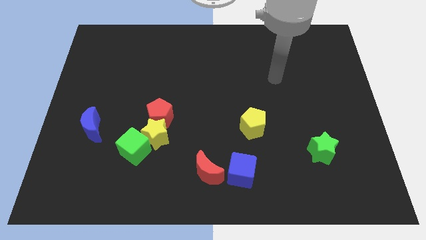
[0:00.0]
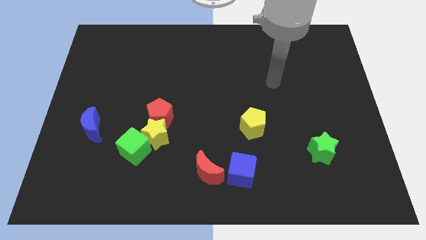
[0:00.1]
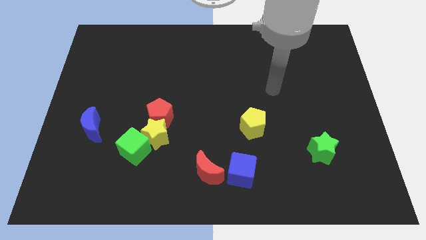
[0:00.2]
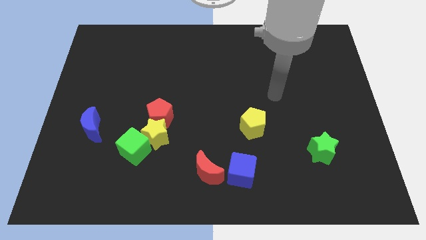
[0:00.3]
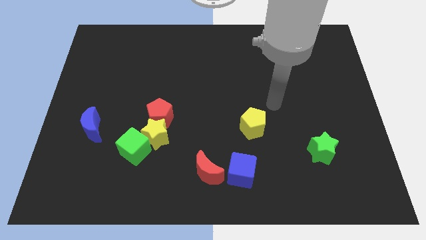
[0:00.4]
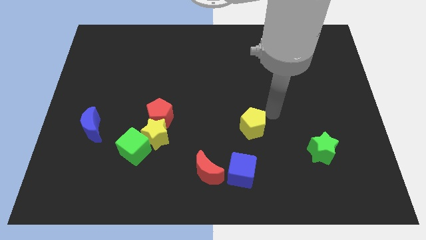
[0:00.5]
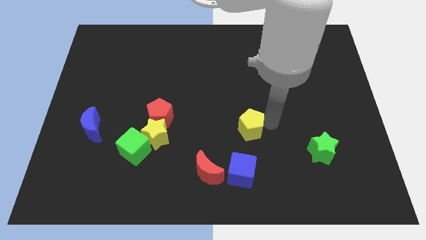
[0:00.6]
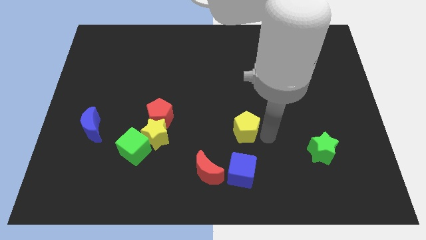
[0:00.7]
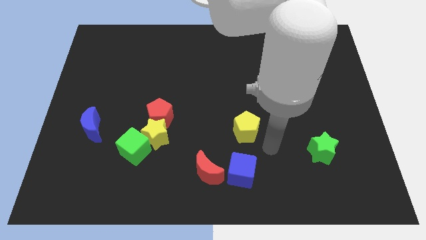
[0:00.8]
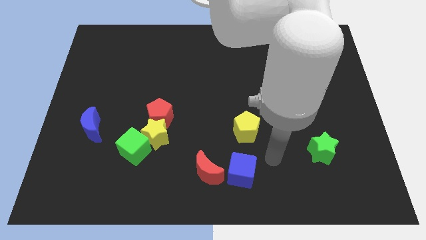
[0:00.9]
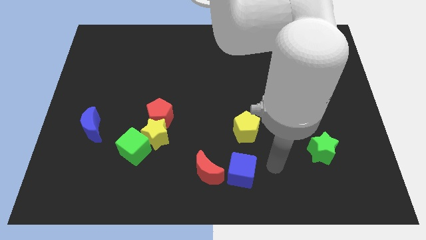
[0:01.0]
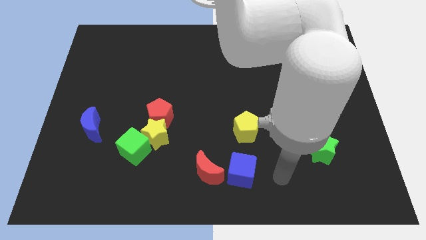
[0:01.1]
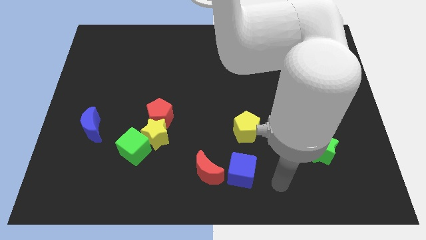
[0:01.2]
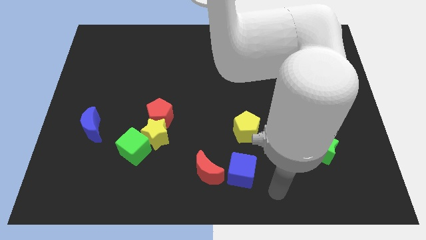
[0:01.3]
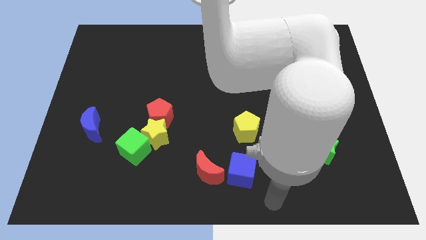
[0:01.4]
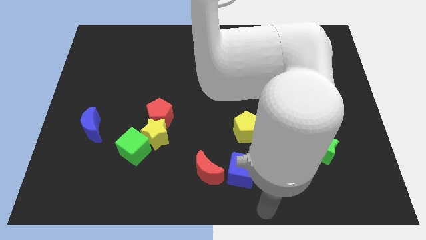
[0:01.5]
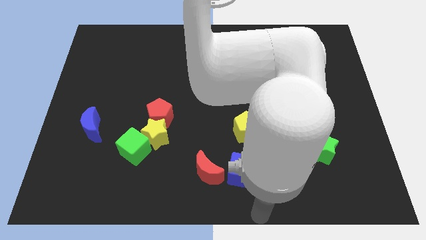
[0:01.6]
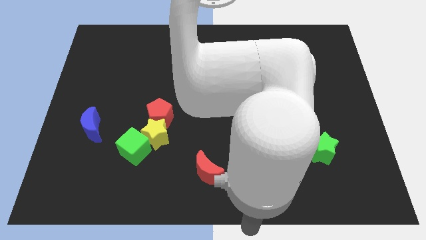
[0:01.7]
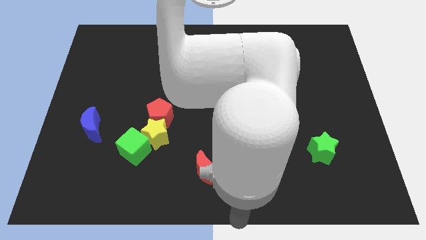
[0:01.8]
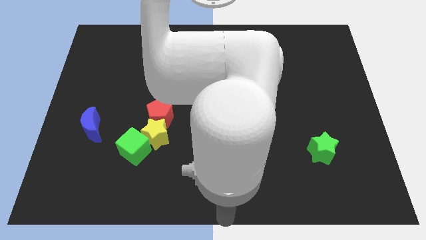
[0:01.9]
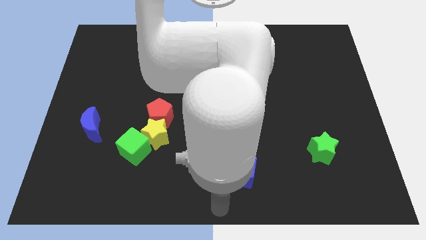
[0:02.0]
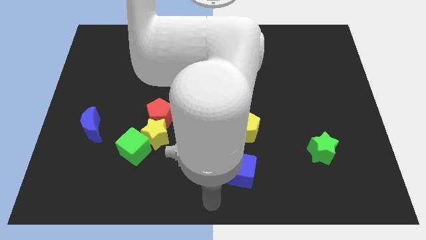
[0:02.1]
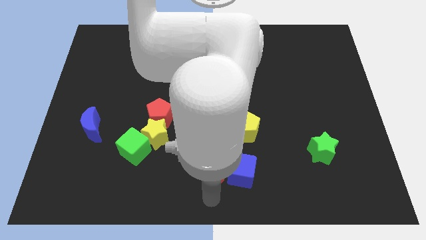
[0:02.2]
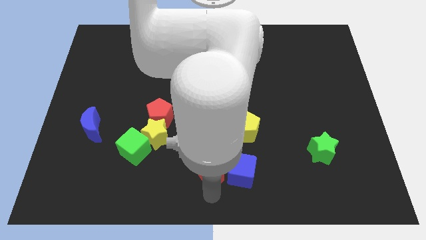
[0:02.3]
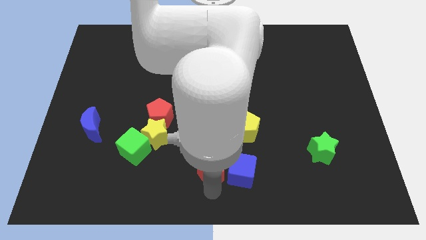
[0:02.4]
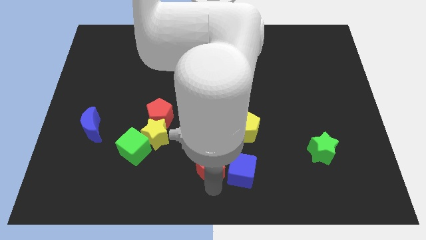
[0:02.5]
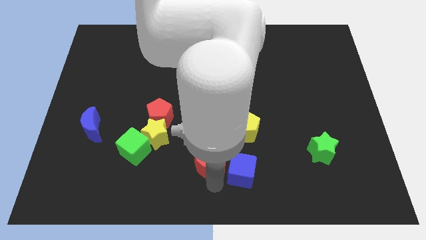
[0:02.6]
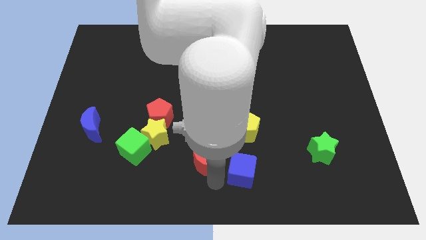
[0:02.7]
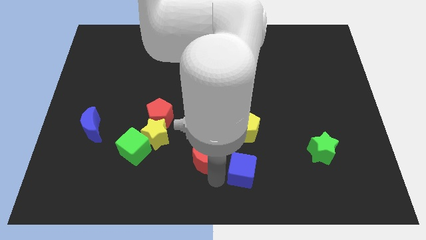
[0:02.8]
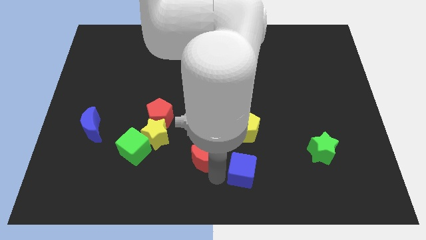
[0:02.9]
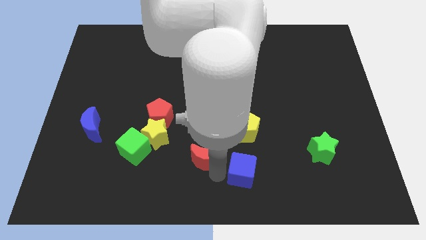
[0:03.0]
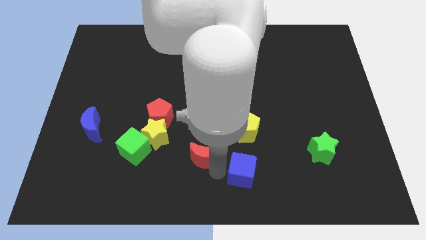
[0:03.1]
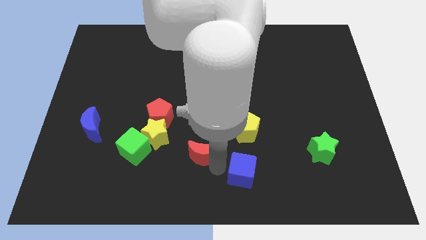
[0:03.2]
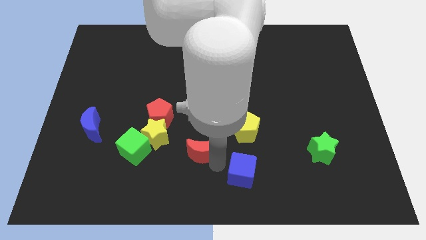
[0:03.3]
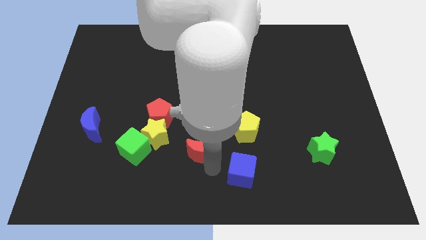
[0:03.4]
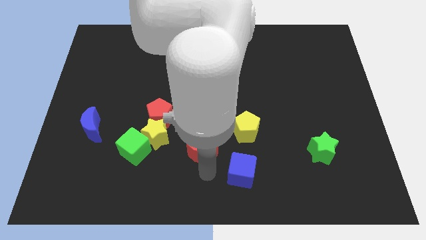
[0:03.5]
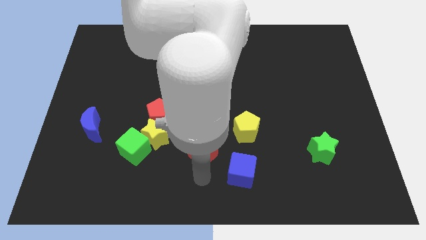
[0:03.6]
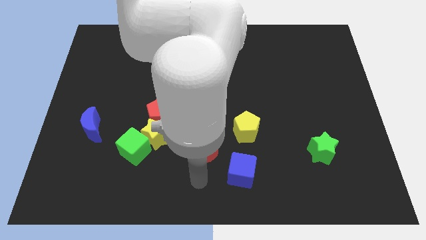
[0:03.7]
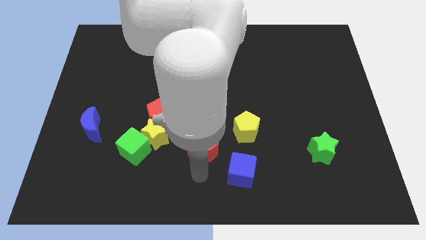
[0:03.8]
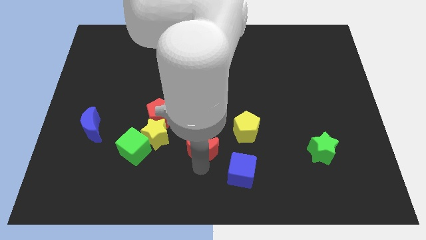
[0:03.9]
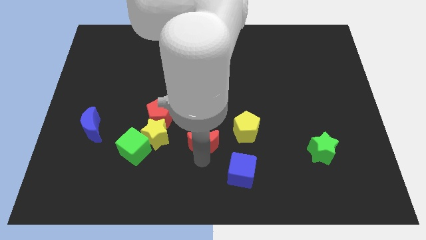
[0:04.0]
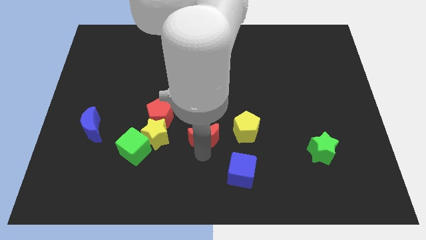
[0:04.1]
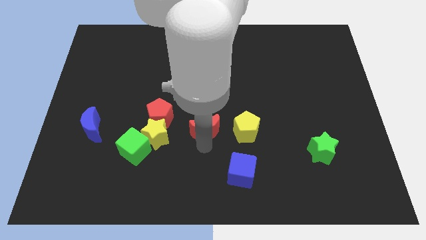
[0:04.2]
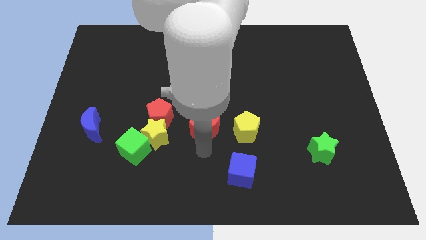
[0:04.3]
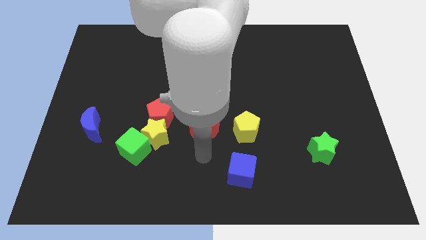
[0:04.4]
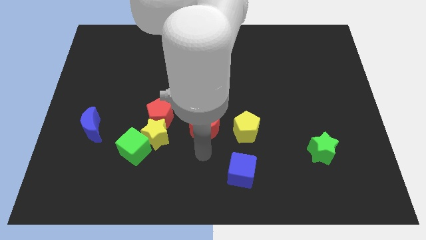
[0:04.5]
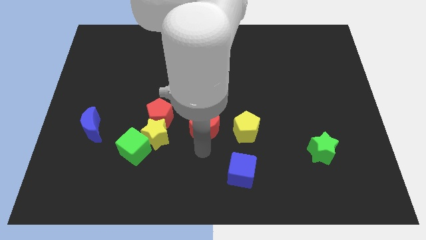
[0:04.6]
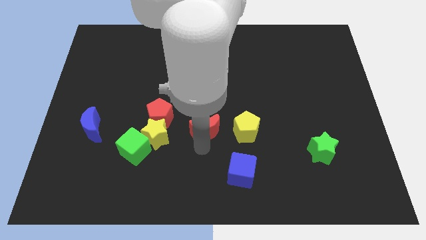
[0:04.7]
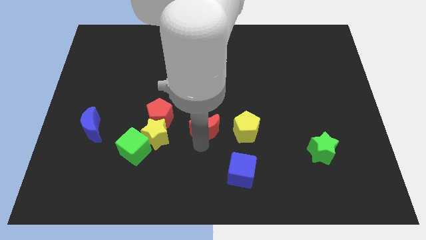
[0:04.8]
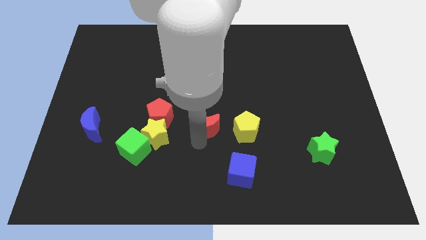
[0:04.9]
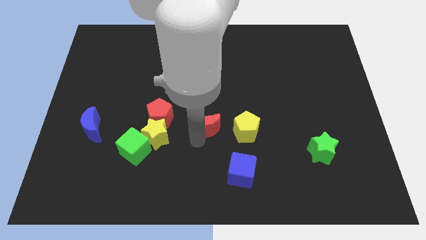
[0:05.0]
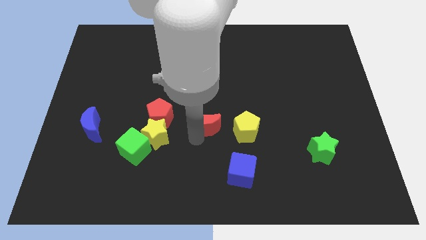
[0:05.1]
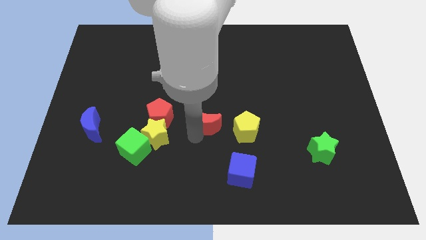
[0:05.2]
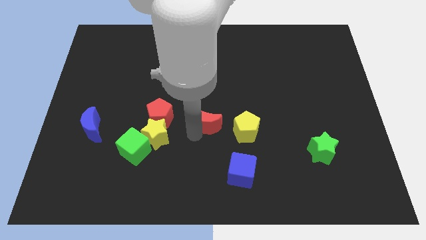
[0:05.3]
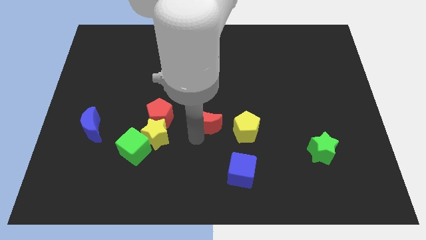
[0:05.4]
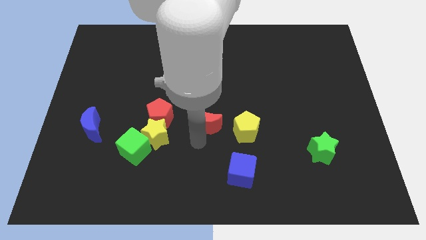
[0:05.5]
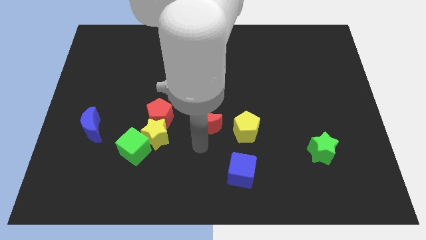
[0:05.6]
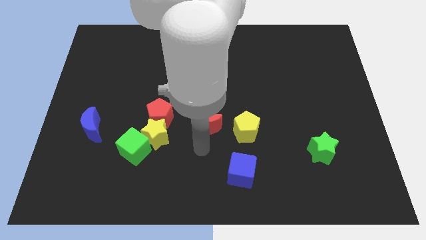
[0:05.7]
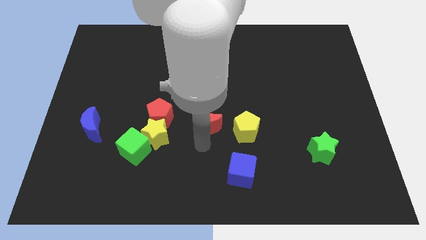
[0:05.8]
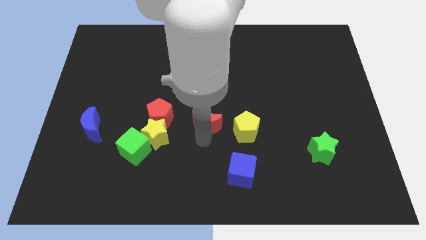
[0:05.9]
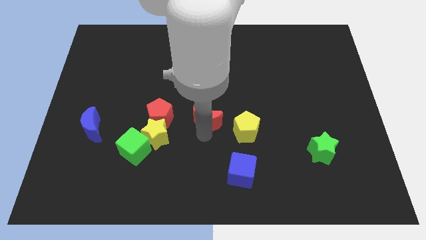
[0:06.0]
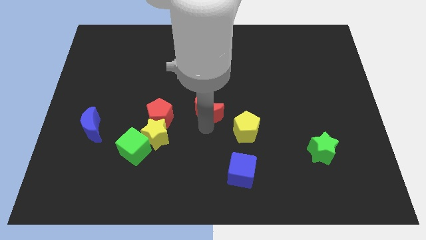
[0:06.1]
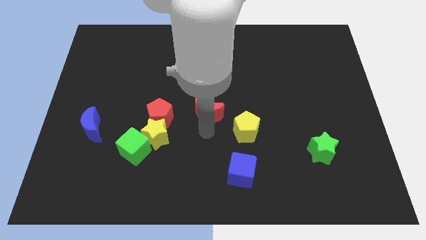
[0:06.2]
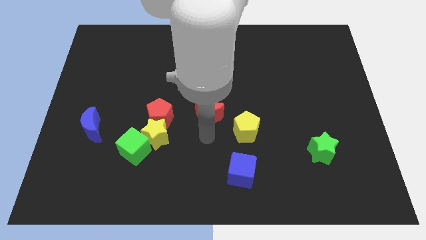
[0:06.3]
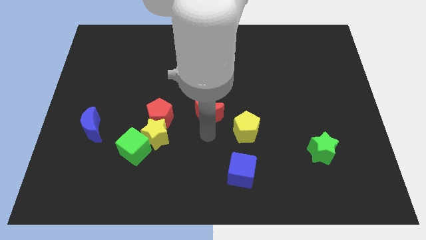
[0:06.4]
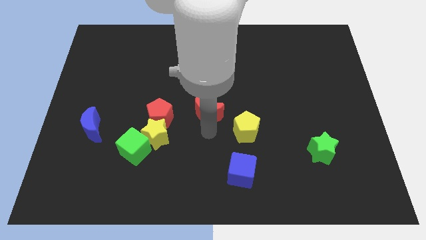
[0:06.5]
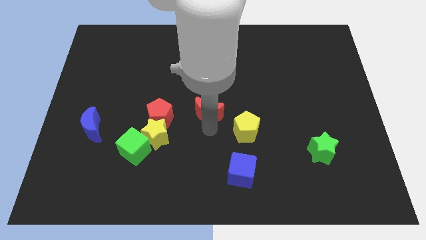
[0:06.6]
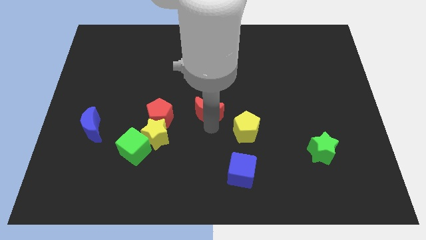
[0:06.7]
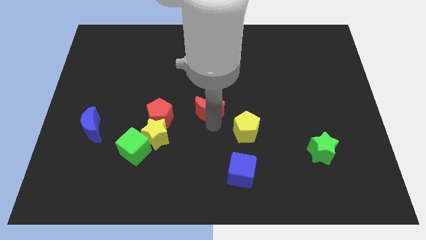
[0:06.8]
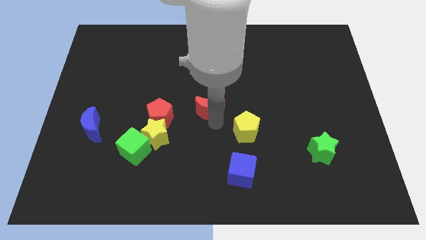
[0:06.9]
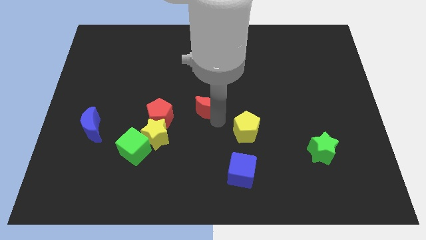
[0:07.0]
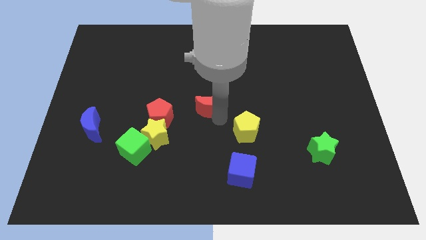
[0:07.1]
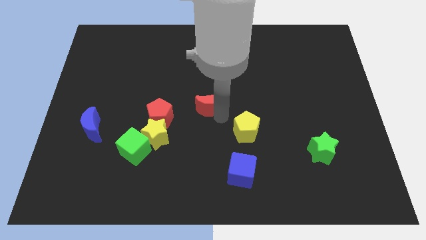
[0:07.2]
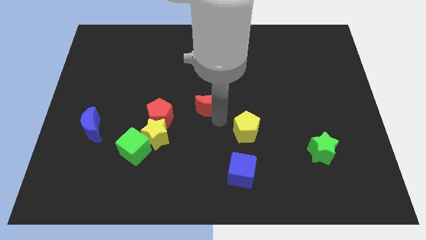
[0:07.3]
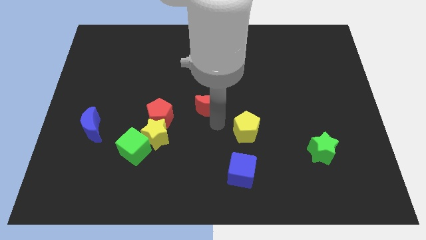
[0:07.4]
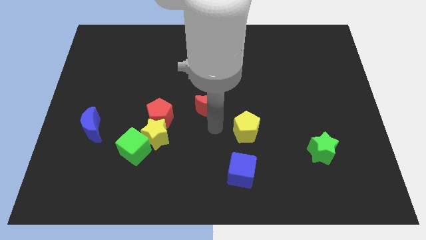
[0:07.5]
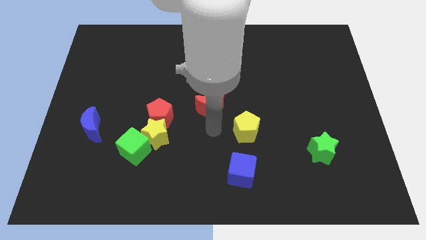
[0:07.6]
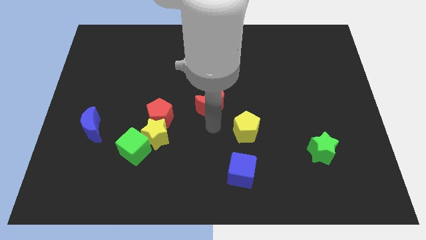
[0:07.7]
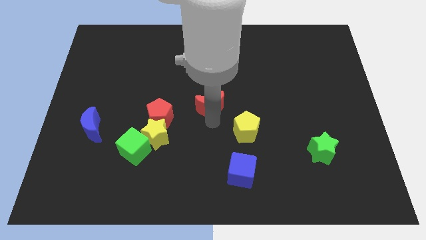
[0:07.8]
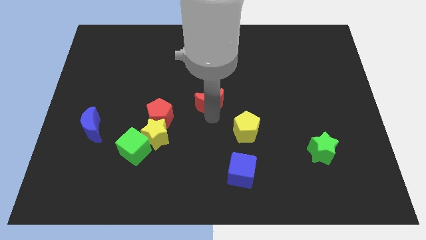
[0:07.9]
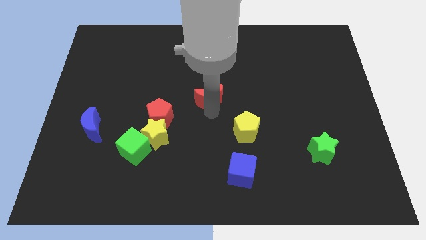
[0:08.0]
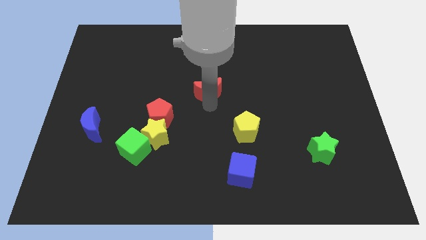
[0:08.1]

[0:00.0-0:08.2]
push the red moon up
